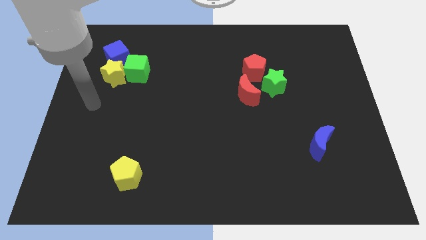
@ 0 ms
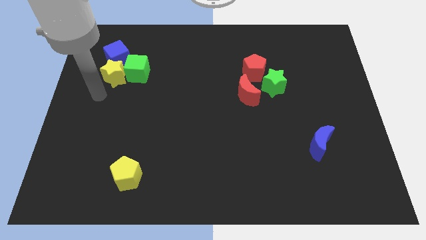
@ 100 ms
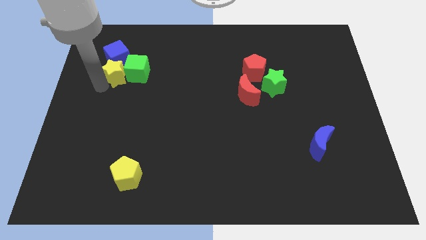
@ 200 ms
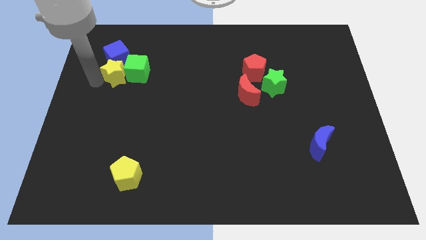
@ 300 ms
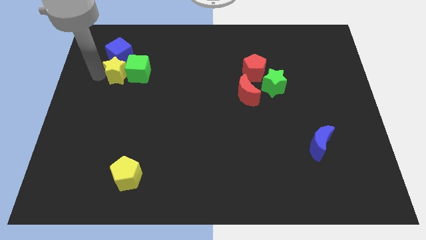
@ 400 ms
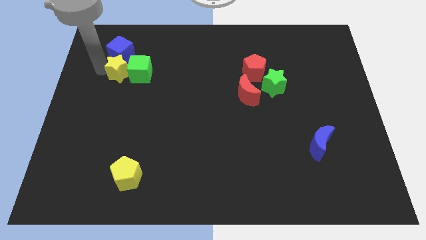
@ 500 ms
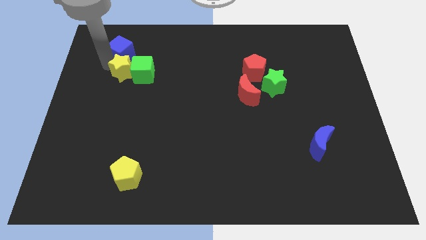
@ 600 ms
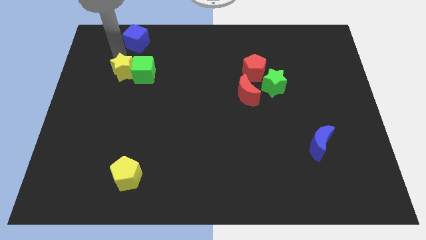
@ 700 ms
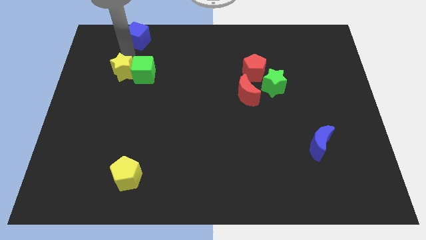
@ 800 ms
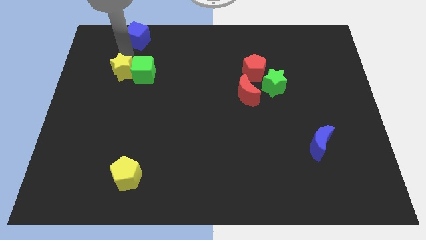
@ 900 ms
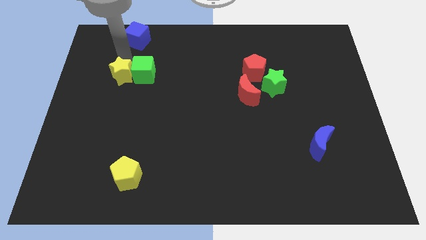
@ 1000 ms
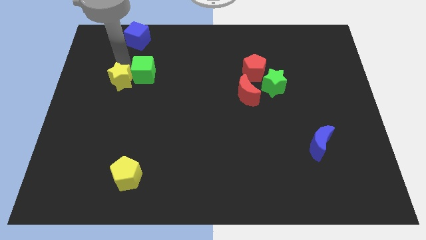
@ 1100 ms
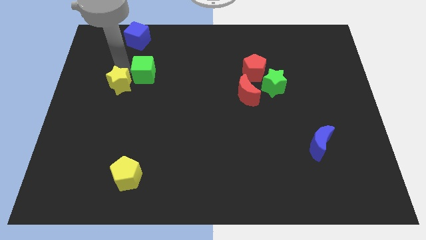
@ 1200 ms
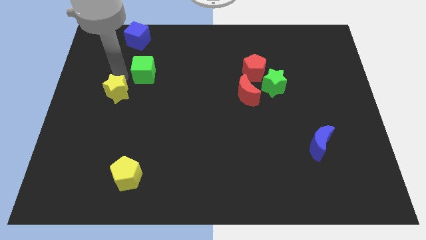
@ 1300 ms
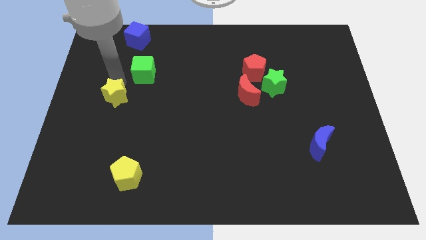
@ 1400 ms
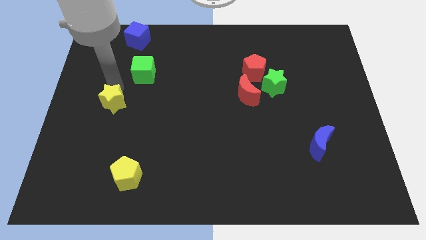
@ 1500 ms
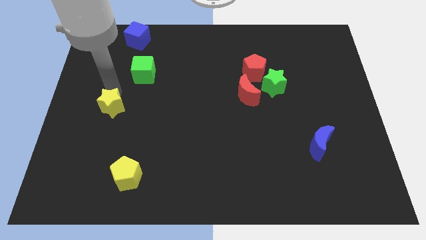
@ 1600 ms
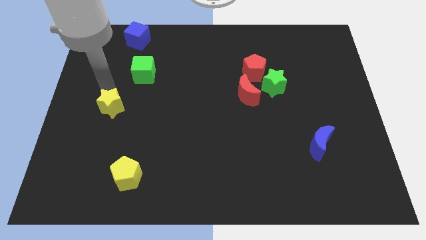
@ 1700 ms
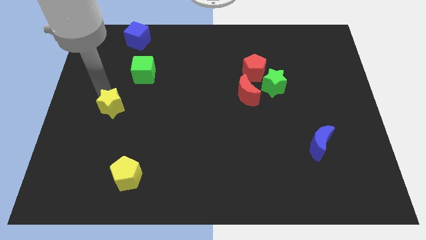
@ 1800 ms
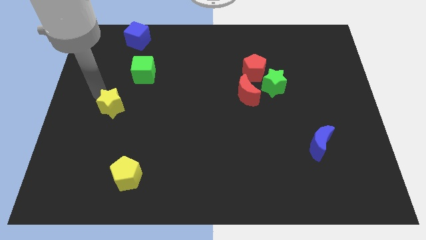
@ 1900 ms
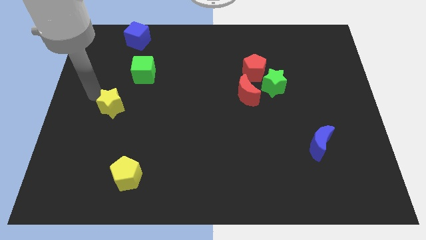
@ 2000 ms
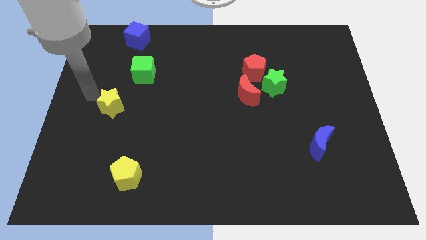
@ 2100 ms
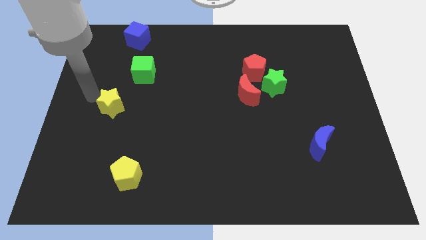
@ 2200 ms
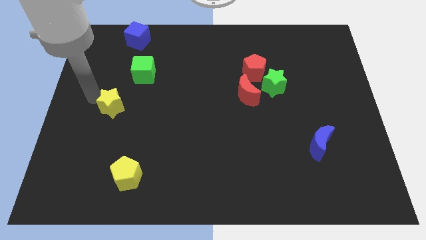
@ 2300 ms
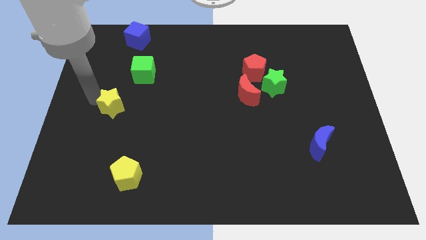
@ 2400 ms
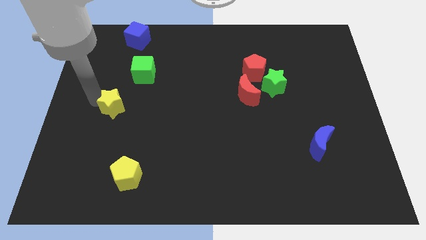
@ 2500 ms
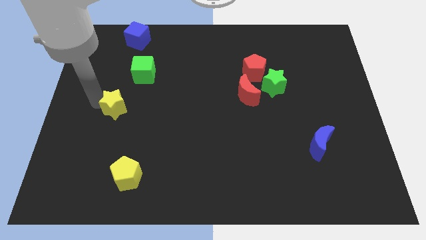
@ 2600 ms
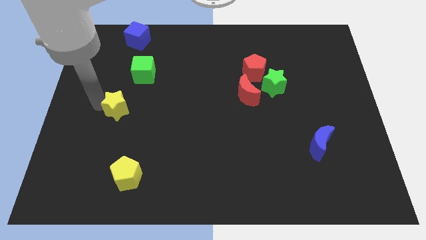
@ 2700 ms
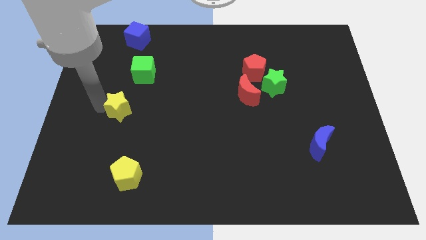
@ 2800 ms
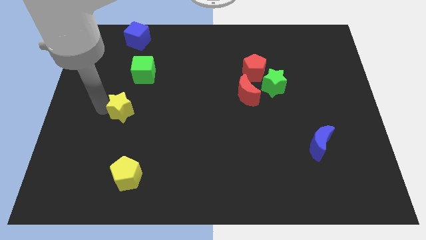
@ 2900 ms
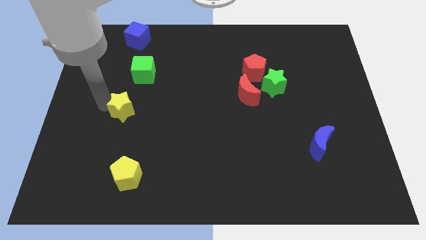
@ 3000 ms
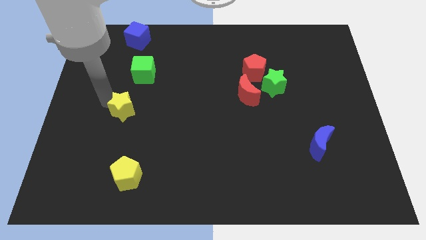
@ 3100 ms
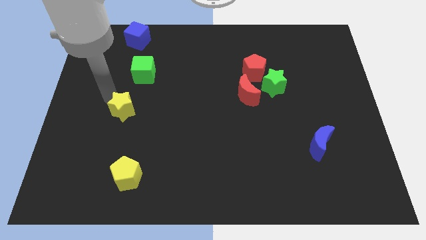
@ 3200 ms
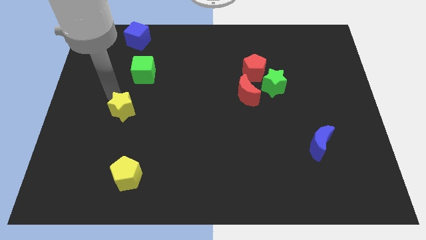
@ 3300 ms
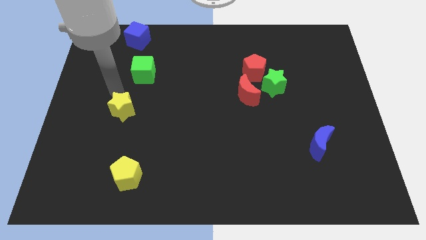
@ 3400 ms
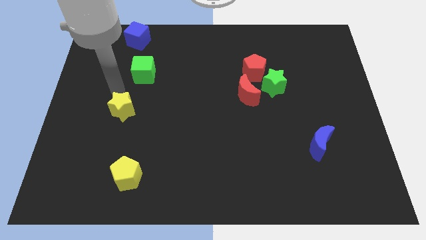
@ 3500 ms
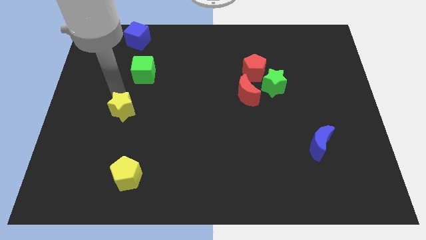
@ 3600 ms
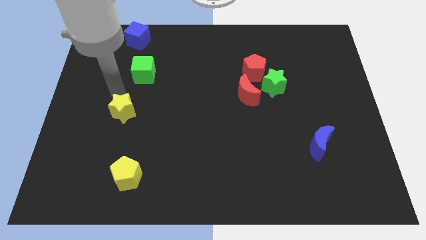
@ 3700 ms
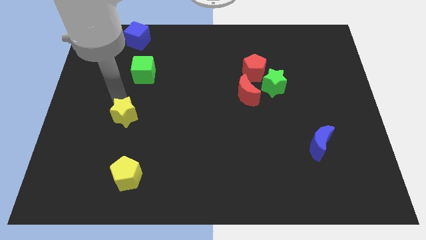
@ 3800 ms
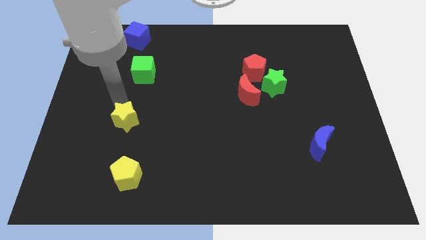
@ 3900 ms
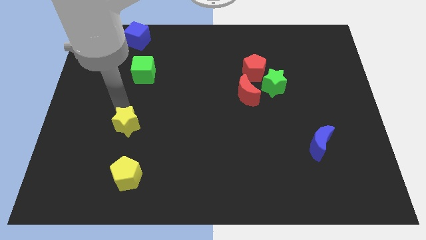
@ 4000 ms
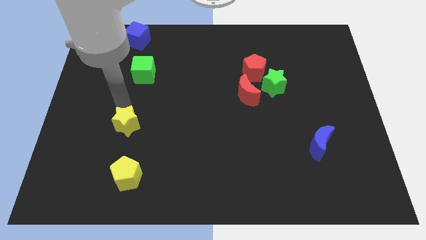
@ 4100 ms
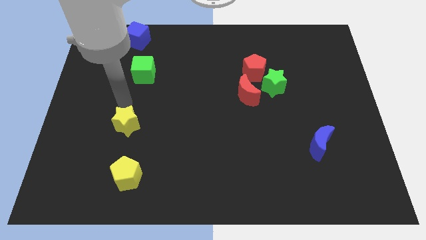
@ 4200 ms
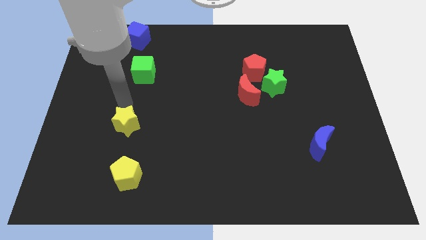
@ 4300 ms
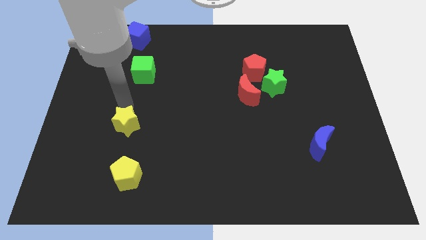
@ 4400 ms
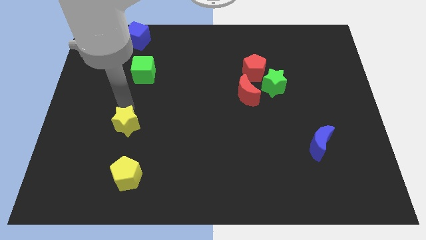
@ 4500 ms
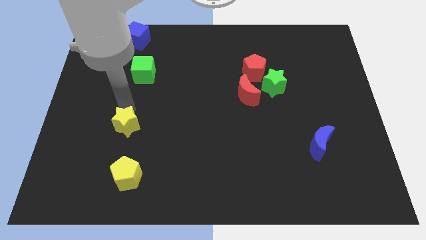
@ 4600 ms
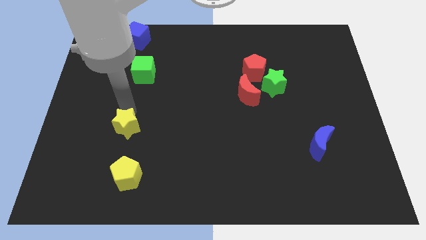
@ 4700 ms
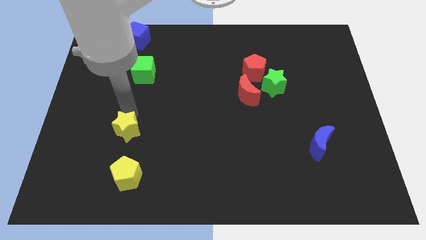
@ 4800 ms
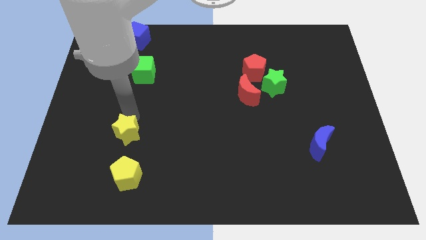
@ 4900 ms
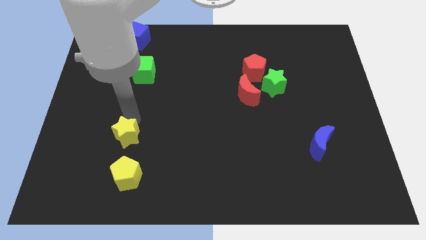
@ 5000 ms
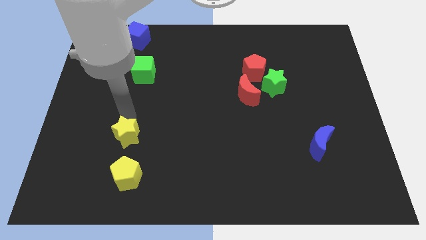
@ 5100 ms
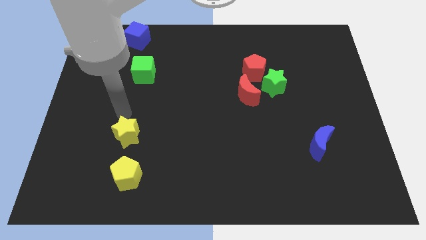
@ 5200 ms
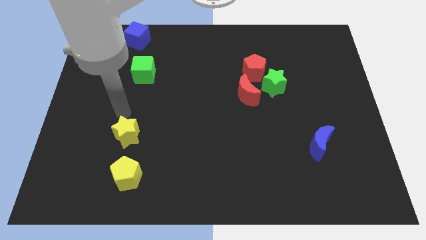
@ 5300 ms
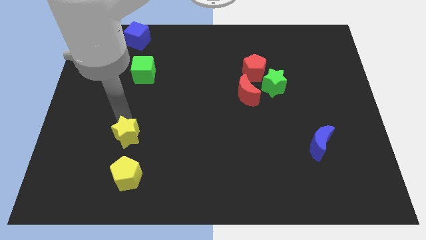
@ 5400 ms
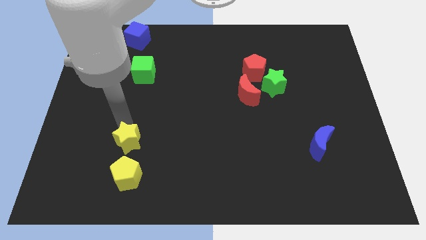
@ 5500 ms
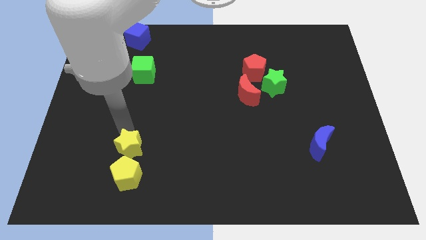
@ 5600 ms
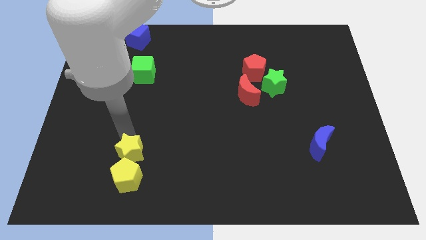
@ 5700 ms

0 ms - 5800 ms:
slide the yellow star to the yellow pentagon

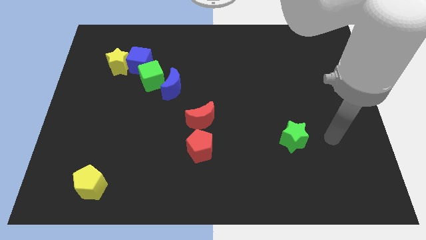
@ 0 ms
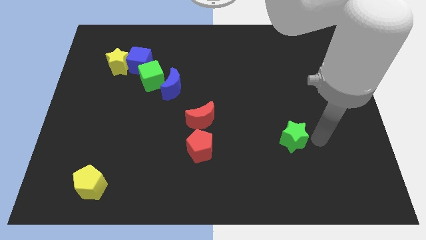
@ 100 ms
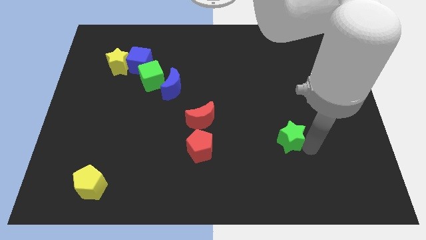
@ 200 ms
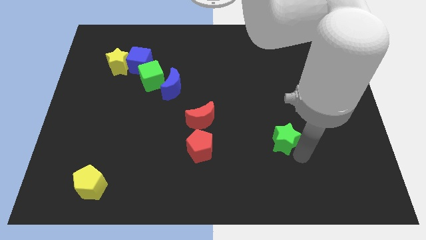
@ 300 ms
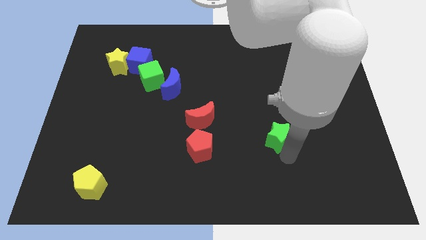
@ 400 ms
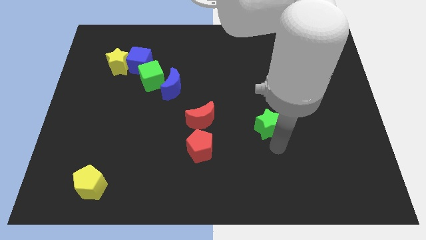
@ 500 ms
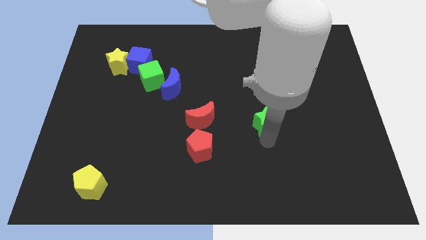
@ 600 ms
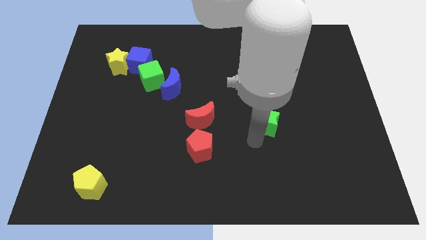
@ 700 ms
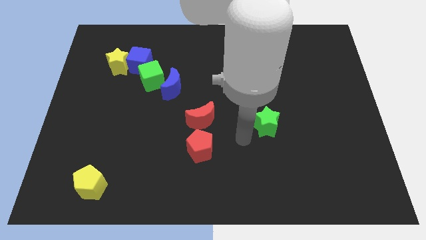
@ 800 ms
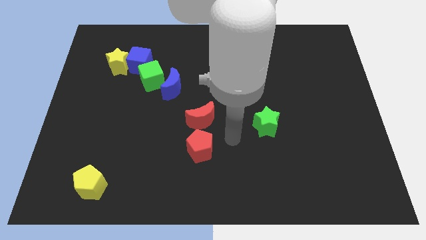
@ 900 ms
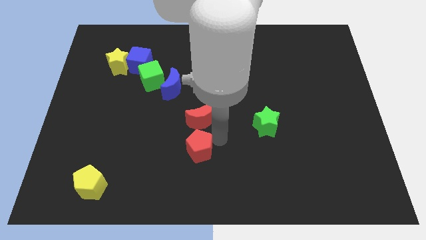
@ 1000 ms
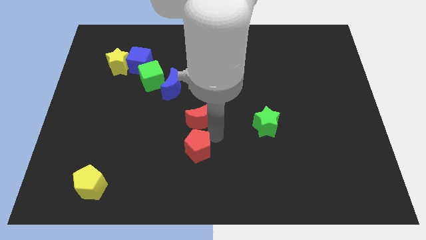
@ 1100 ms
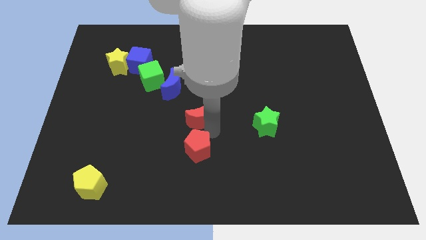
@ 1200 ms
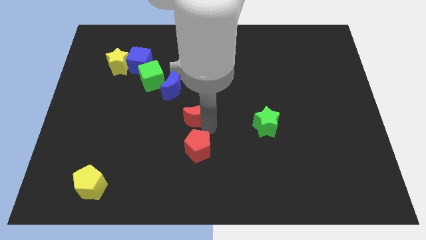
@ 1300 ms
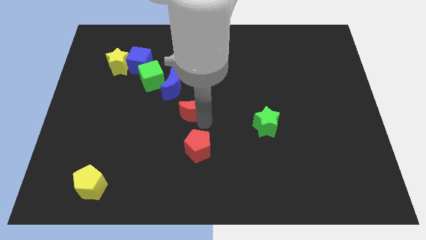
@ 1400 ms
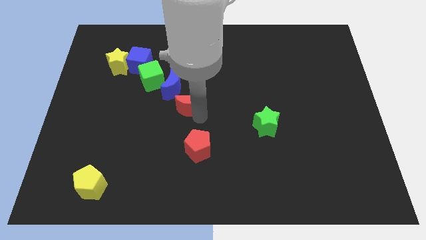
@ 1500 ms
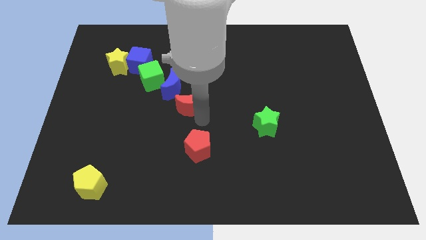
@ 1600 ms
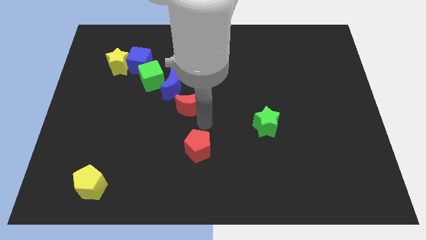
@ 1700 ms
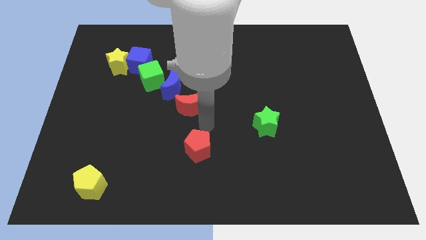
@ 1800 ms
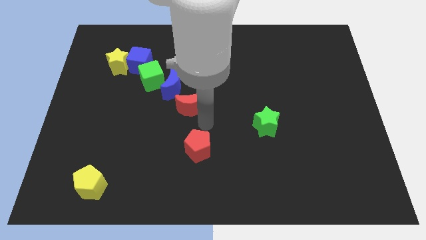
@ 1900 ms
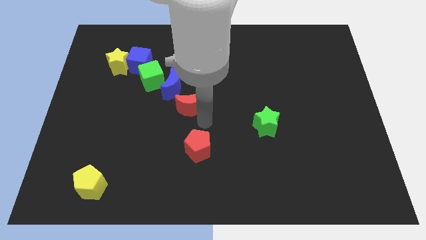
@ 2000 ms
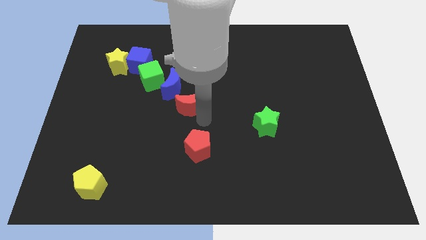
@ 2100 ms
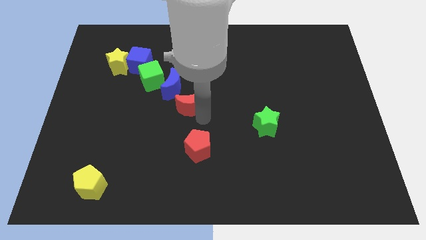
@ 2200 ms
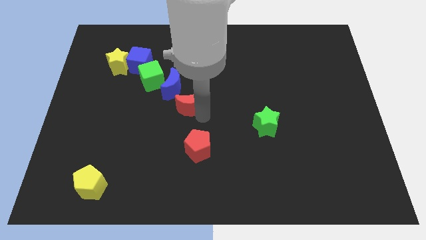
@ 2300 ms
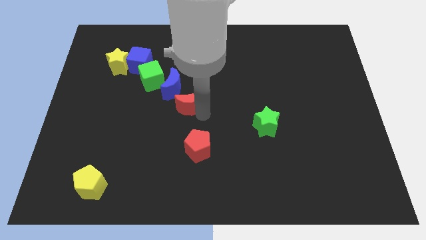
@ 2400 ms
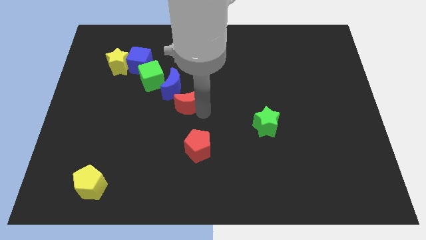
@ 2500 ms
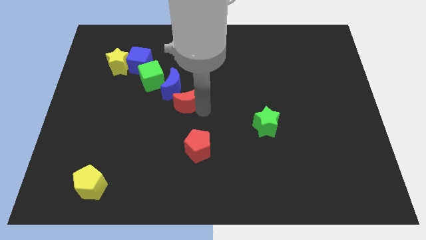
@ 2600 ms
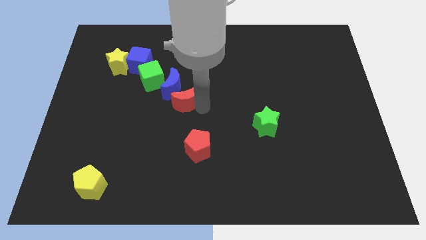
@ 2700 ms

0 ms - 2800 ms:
move the red moon towards the blue moon
